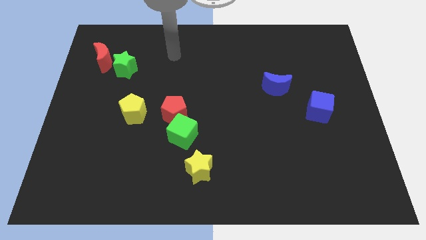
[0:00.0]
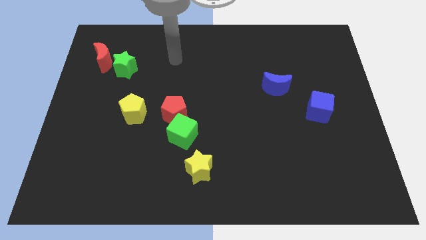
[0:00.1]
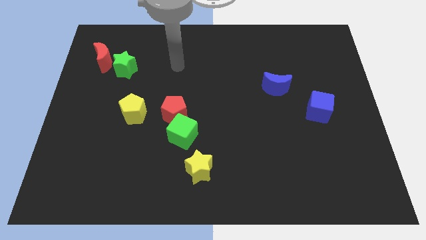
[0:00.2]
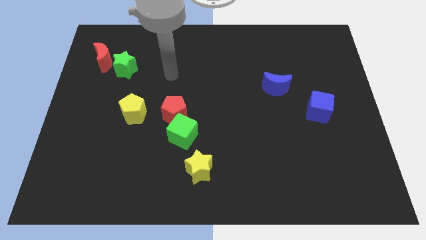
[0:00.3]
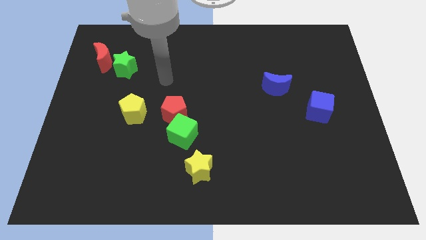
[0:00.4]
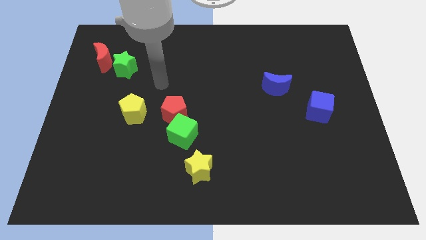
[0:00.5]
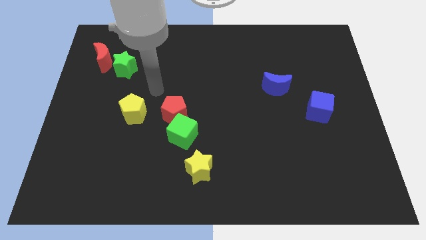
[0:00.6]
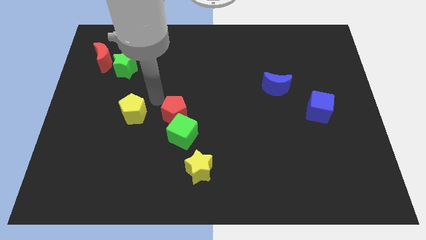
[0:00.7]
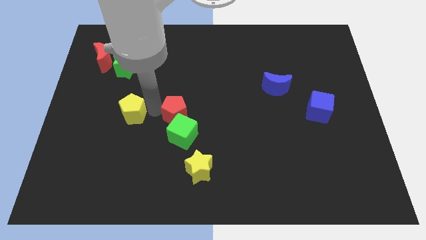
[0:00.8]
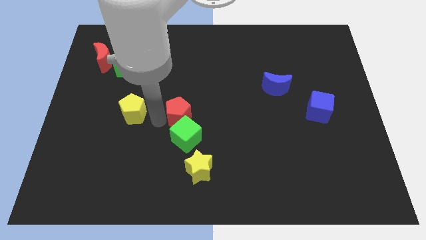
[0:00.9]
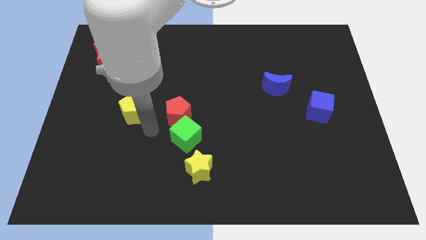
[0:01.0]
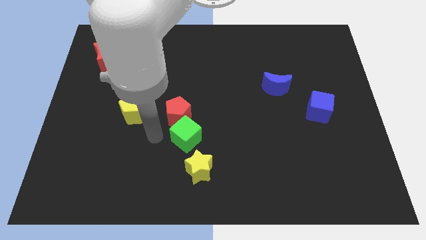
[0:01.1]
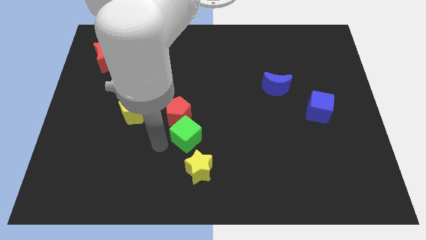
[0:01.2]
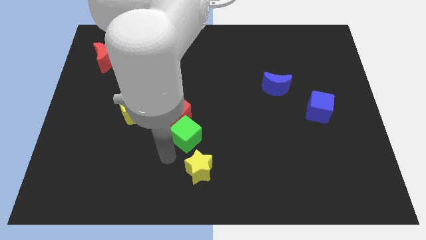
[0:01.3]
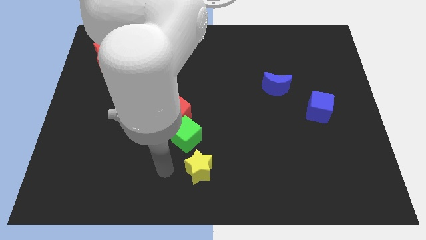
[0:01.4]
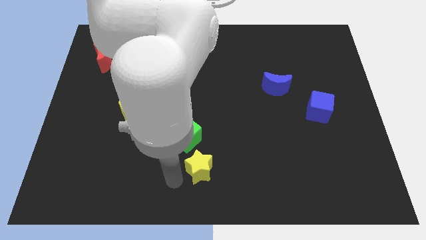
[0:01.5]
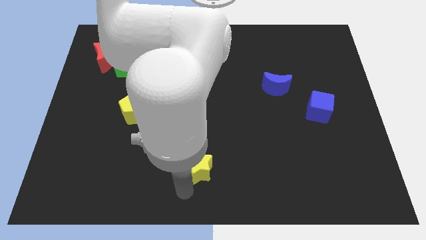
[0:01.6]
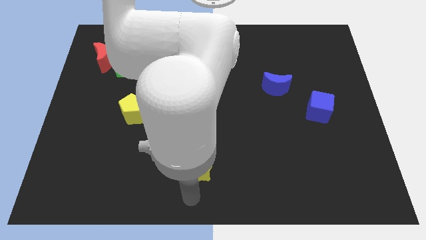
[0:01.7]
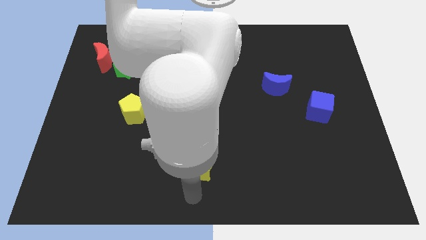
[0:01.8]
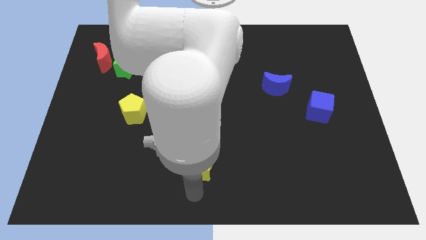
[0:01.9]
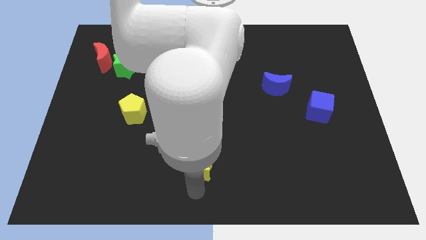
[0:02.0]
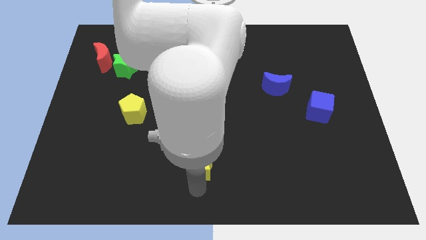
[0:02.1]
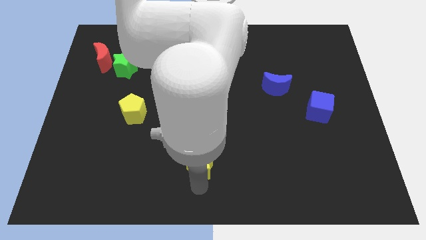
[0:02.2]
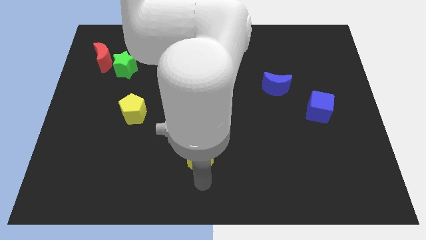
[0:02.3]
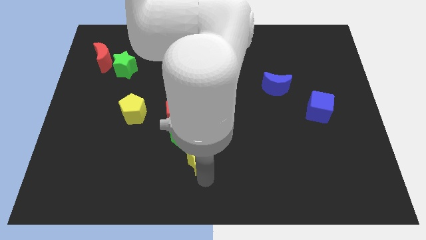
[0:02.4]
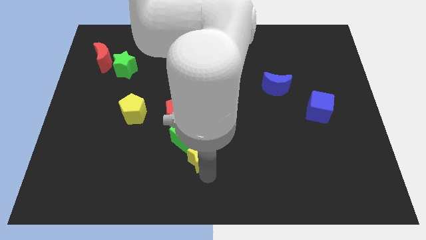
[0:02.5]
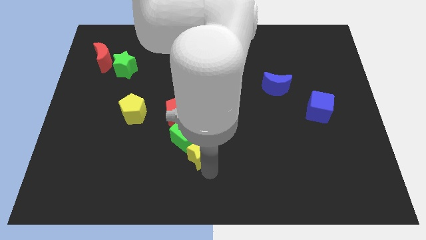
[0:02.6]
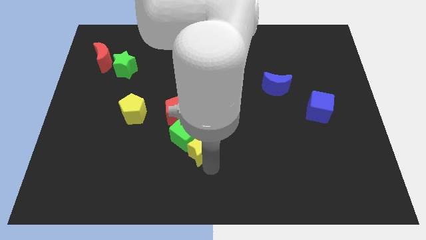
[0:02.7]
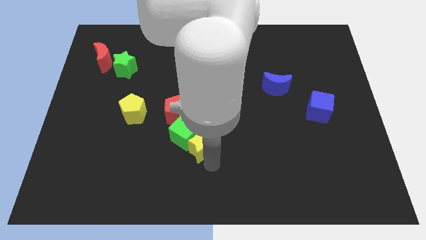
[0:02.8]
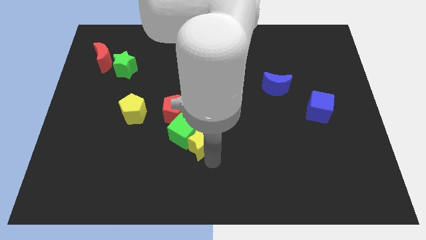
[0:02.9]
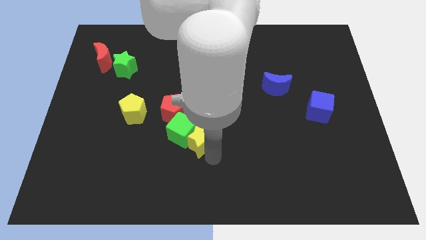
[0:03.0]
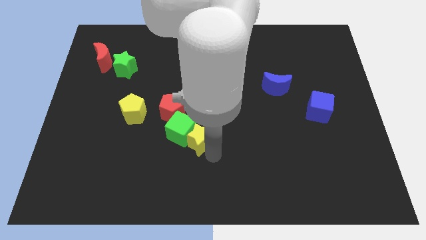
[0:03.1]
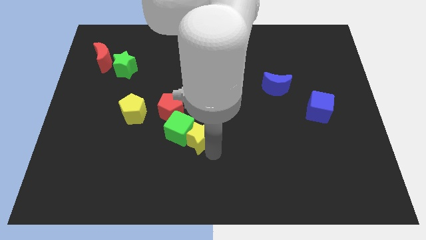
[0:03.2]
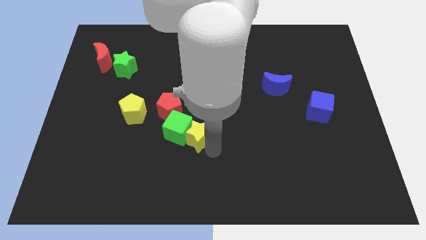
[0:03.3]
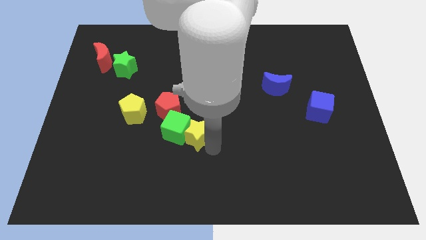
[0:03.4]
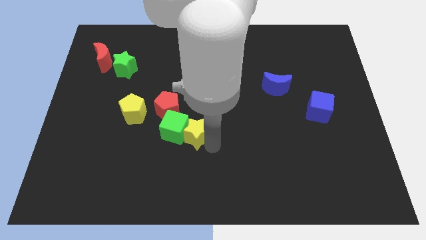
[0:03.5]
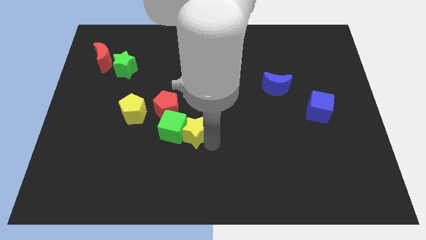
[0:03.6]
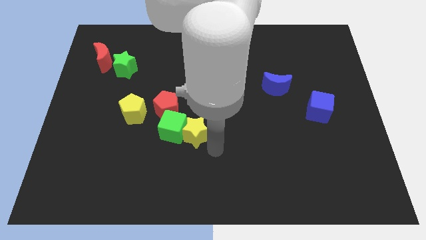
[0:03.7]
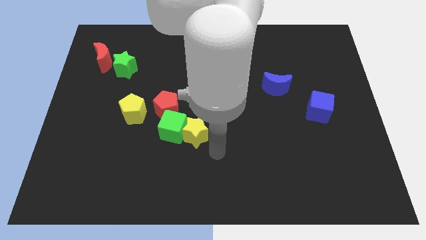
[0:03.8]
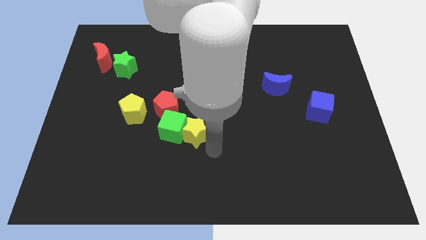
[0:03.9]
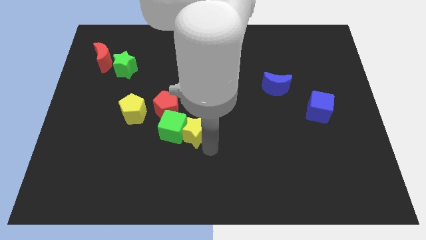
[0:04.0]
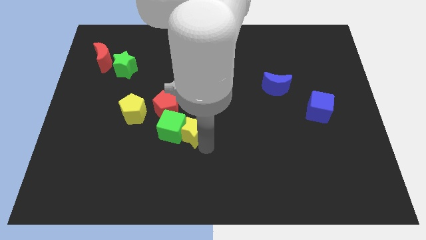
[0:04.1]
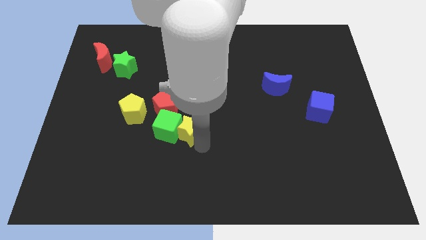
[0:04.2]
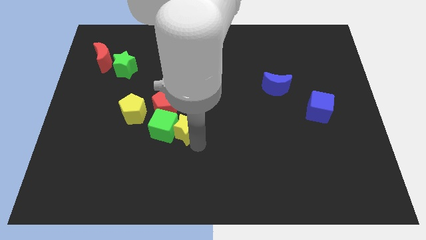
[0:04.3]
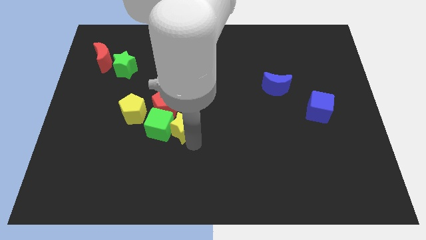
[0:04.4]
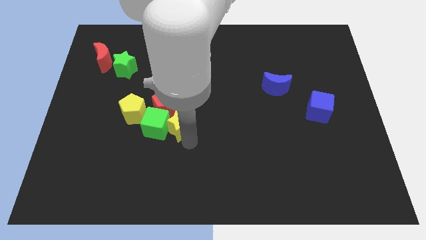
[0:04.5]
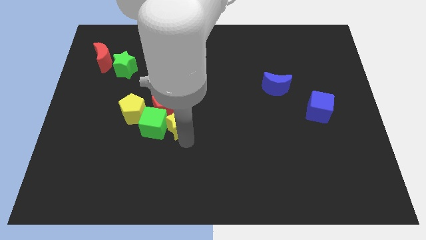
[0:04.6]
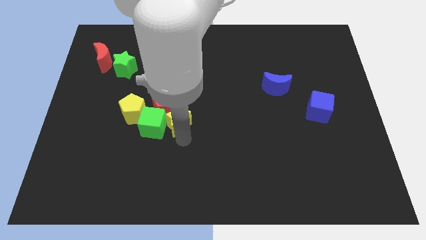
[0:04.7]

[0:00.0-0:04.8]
slide the yellow star towards the red pentagon

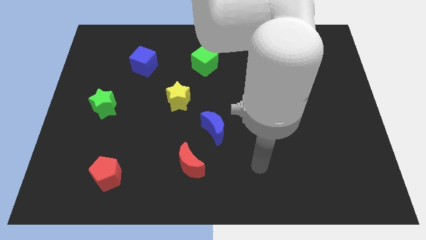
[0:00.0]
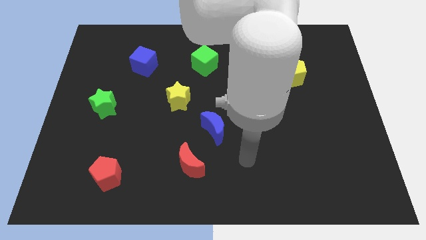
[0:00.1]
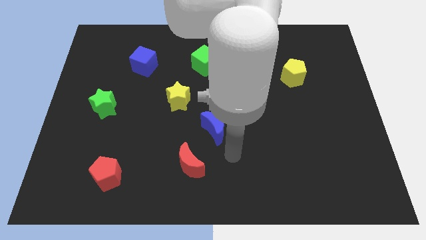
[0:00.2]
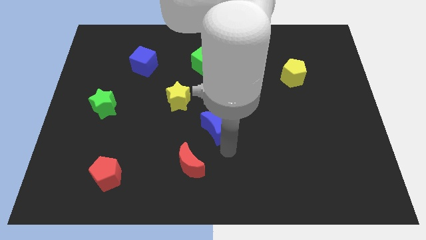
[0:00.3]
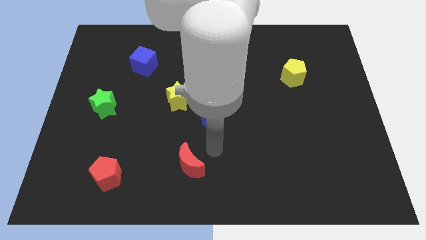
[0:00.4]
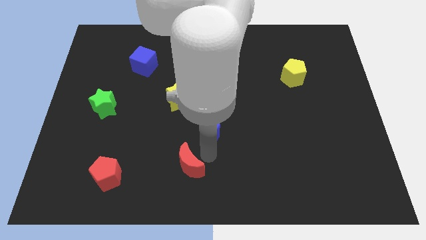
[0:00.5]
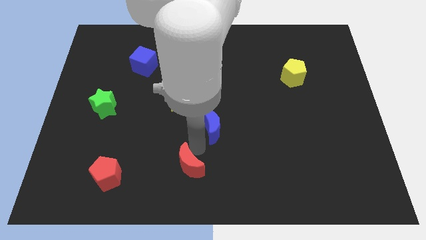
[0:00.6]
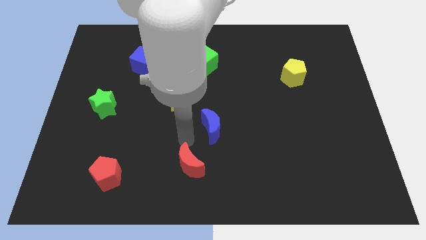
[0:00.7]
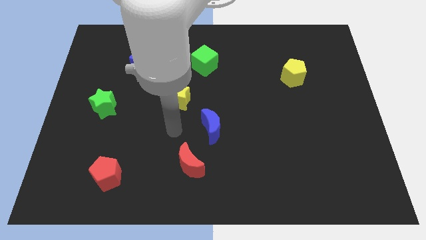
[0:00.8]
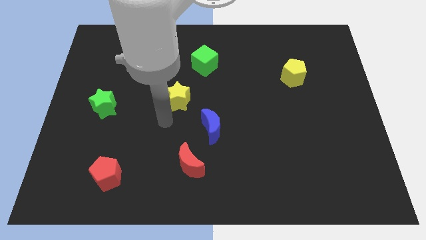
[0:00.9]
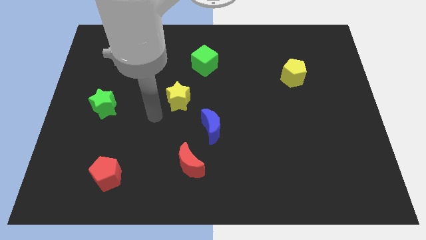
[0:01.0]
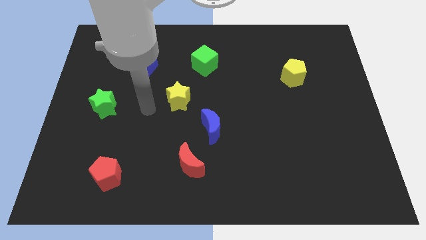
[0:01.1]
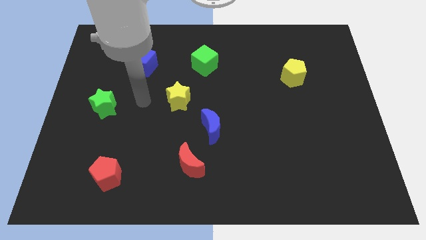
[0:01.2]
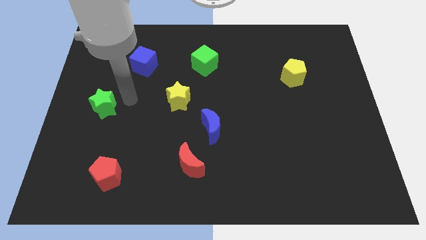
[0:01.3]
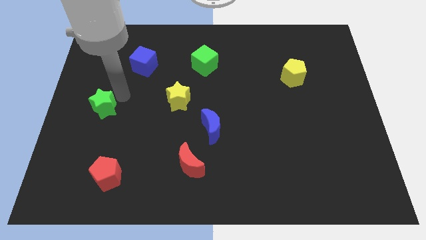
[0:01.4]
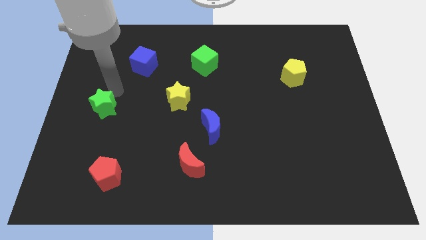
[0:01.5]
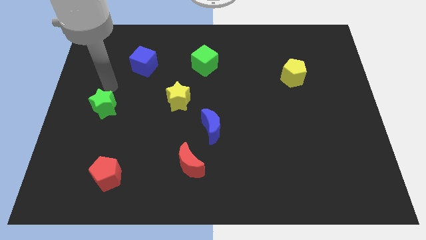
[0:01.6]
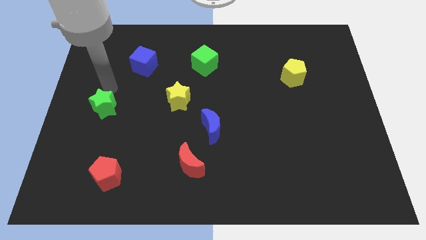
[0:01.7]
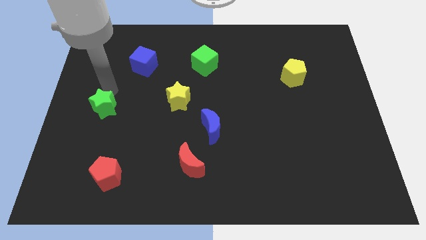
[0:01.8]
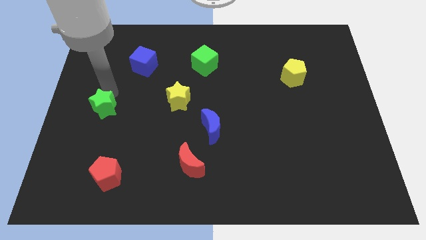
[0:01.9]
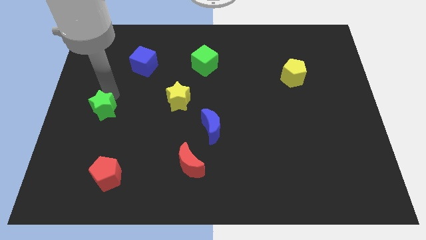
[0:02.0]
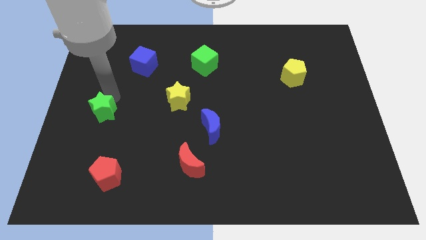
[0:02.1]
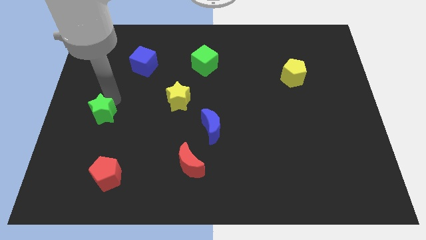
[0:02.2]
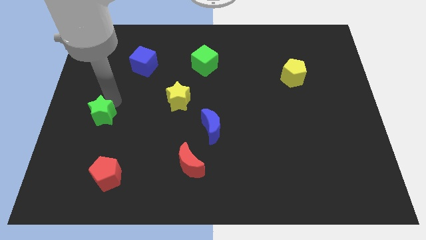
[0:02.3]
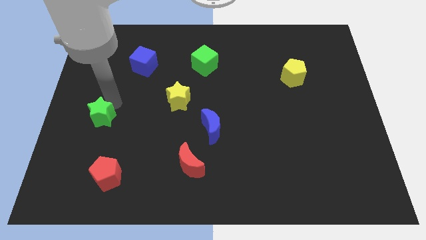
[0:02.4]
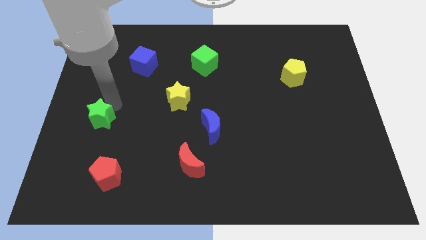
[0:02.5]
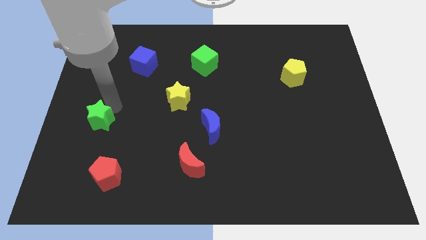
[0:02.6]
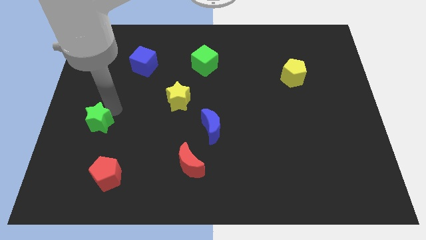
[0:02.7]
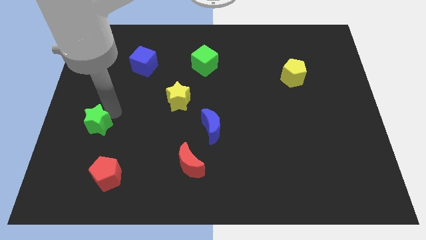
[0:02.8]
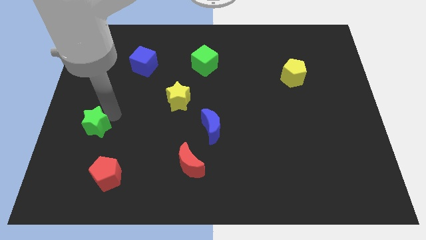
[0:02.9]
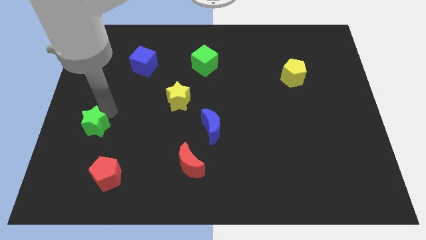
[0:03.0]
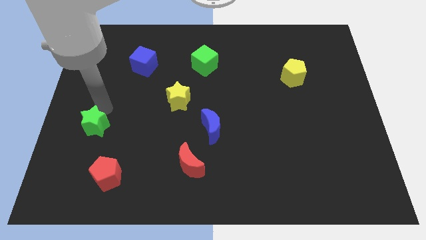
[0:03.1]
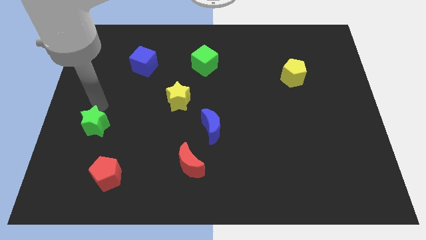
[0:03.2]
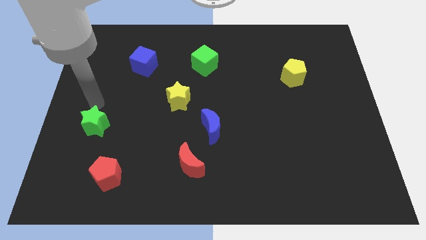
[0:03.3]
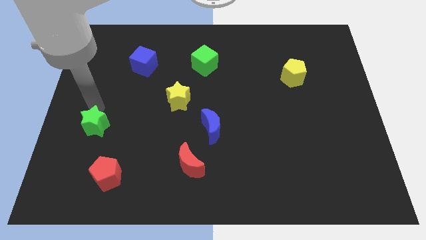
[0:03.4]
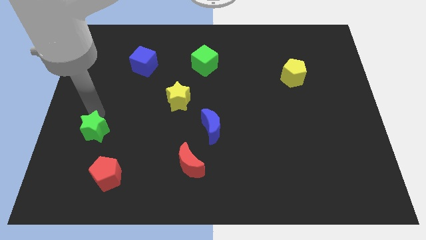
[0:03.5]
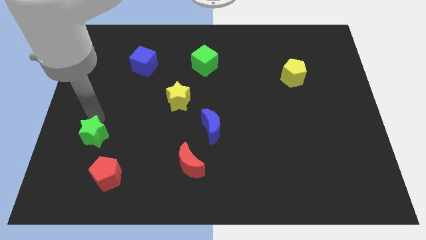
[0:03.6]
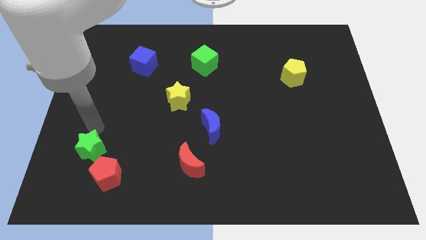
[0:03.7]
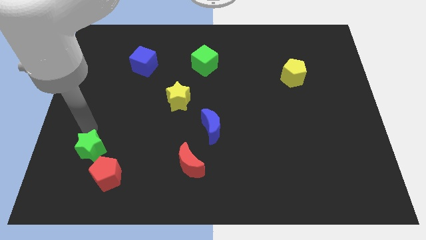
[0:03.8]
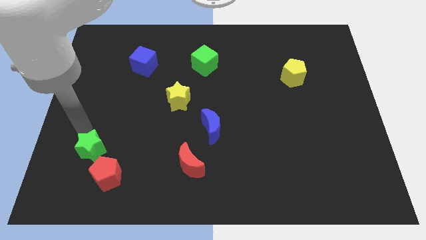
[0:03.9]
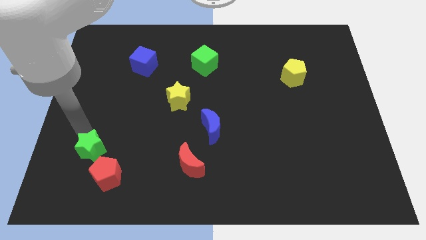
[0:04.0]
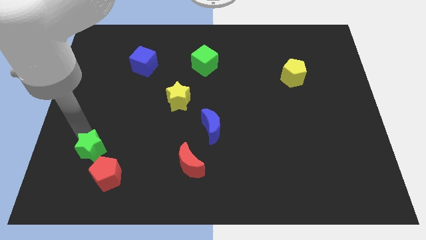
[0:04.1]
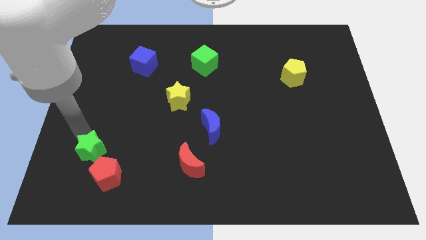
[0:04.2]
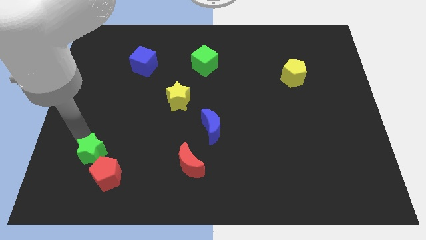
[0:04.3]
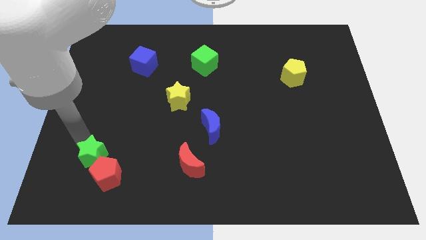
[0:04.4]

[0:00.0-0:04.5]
put the green star towards the red pentagon
